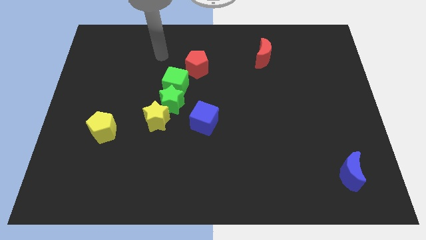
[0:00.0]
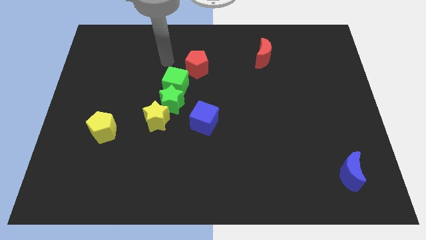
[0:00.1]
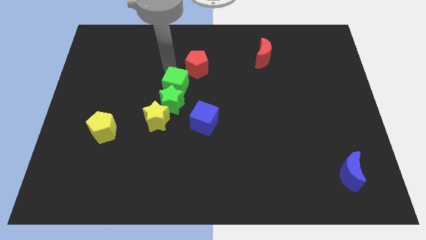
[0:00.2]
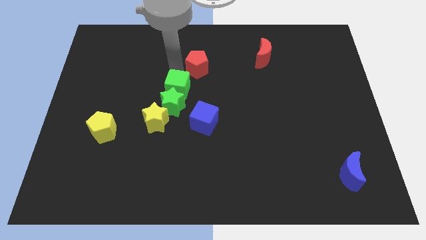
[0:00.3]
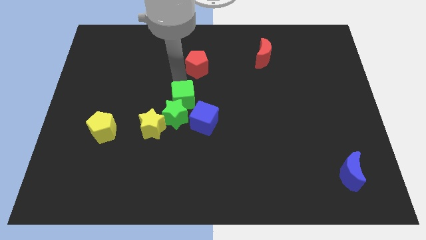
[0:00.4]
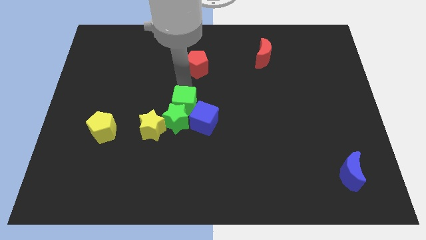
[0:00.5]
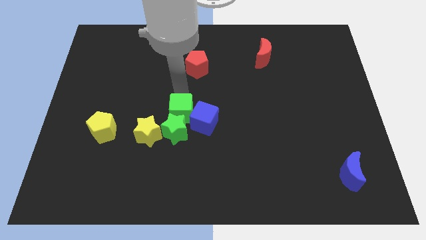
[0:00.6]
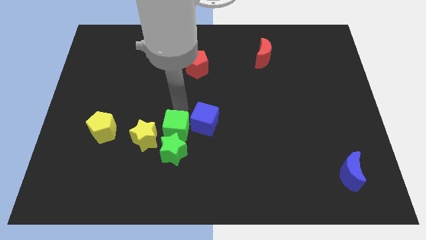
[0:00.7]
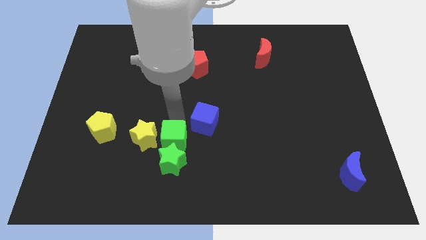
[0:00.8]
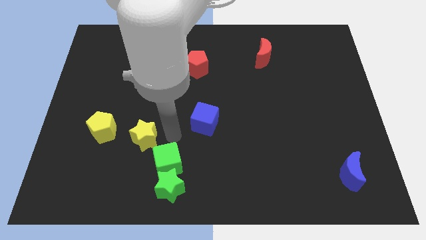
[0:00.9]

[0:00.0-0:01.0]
move the yellow star away from the green star

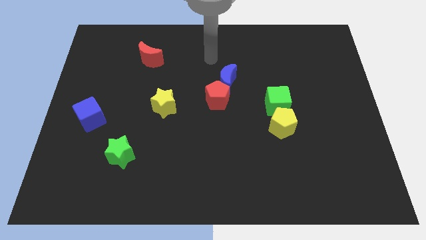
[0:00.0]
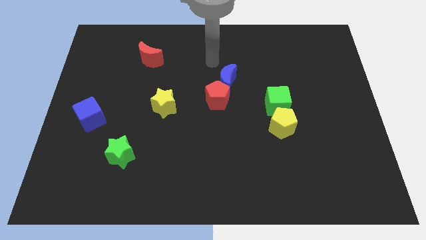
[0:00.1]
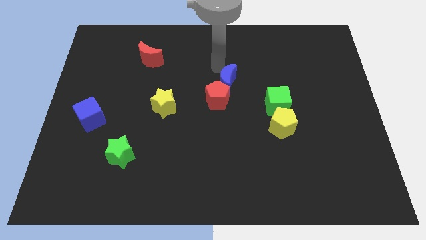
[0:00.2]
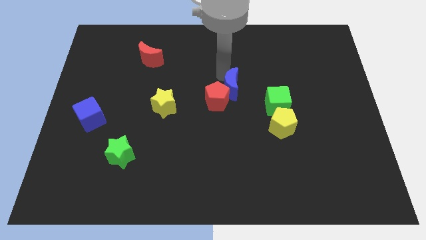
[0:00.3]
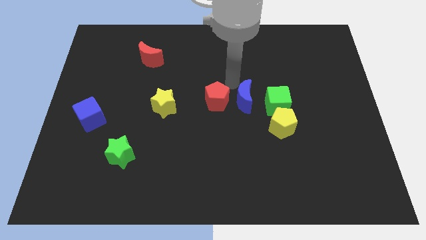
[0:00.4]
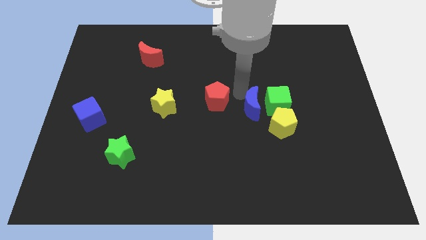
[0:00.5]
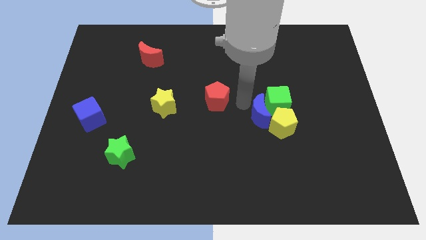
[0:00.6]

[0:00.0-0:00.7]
move the red pentagon away from the blue moon

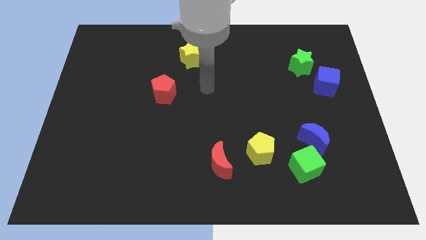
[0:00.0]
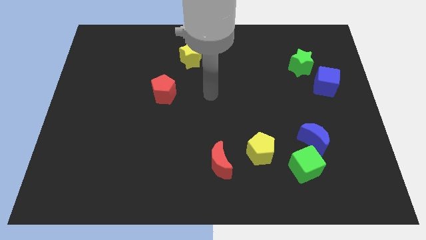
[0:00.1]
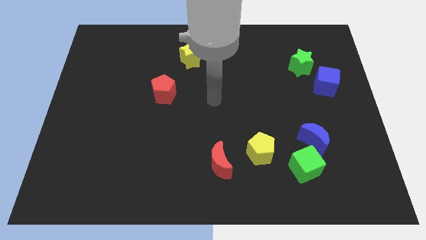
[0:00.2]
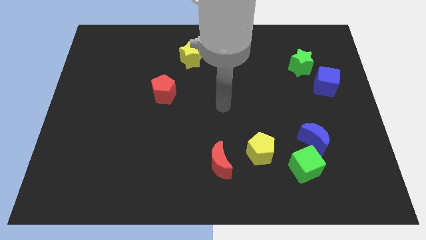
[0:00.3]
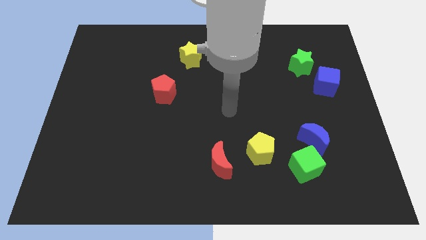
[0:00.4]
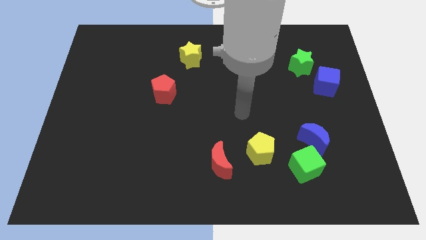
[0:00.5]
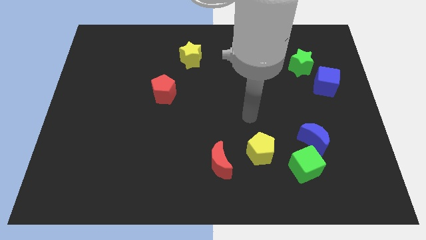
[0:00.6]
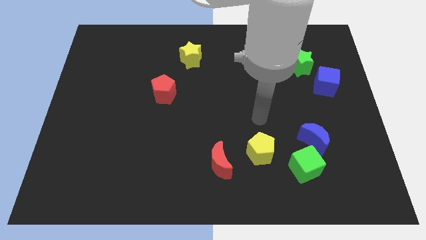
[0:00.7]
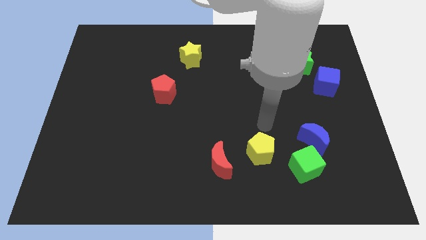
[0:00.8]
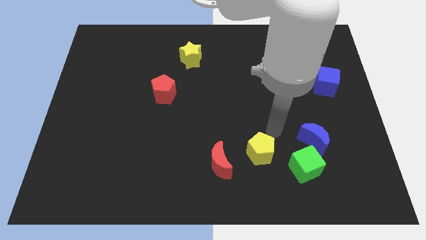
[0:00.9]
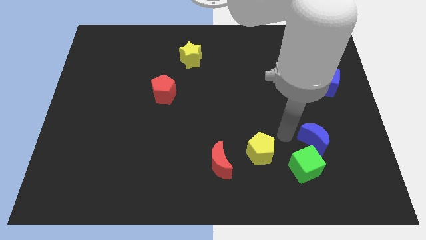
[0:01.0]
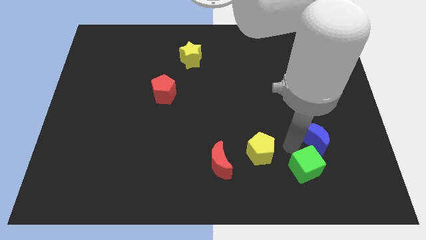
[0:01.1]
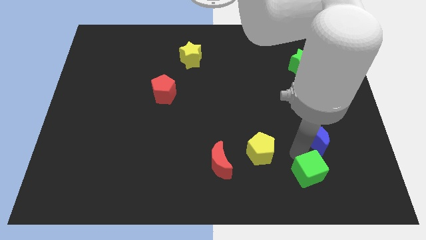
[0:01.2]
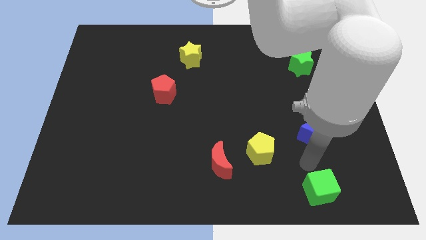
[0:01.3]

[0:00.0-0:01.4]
separate the blue moon from the green cube

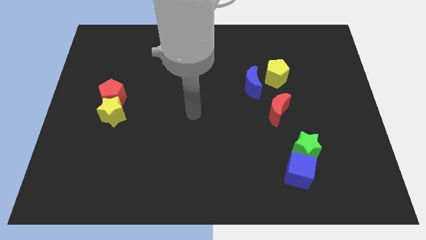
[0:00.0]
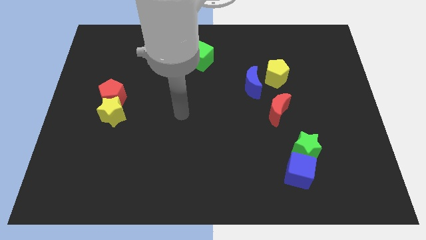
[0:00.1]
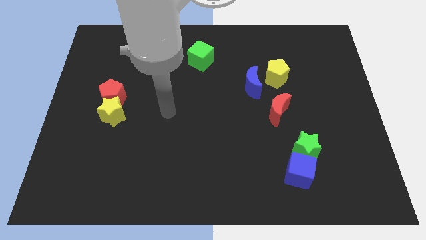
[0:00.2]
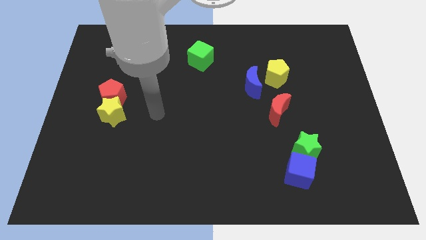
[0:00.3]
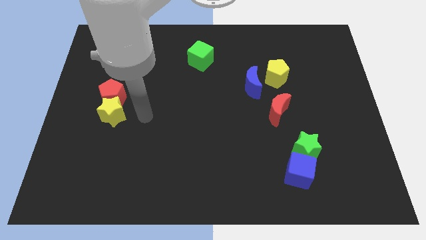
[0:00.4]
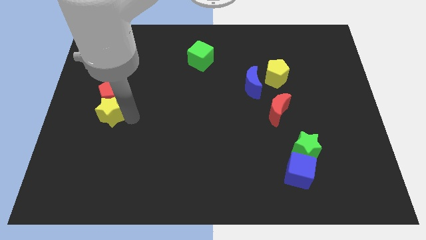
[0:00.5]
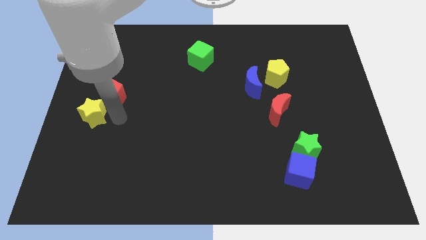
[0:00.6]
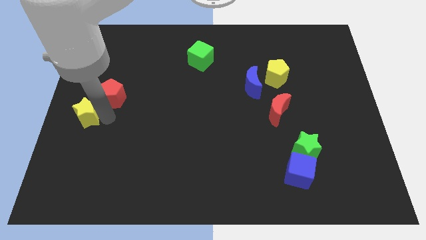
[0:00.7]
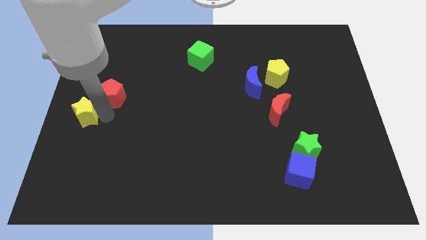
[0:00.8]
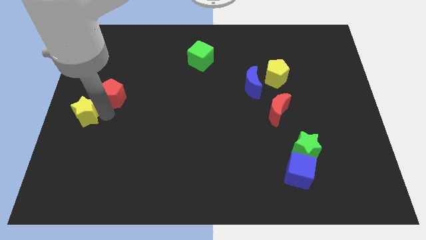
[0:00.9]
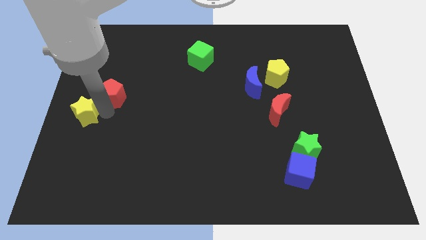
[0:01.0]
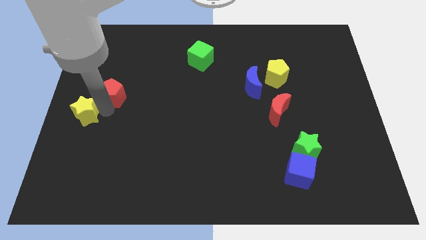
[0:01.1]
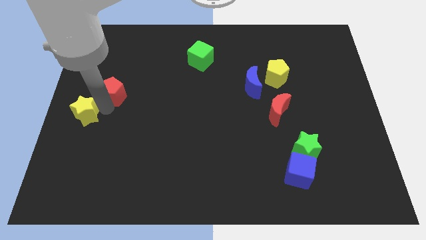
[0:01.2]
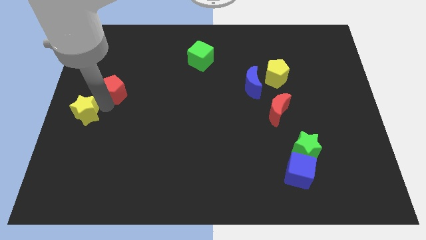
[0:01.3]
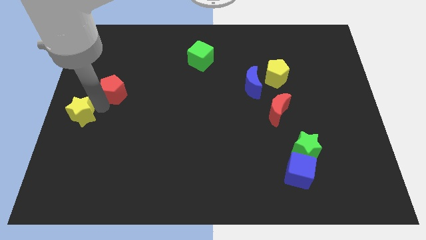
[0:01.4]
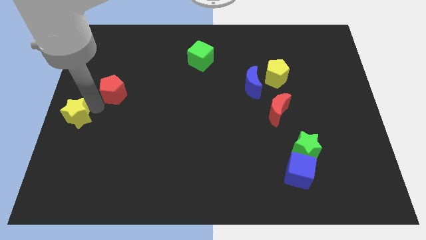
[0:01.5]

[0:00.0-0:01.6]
move the red pentagon away from the yellow star

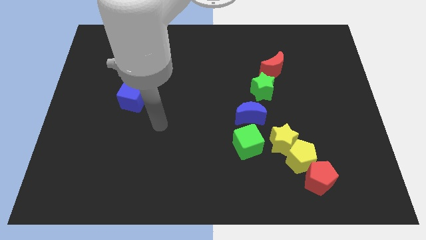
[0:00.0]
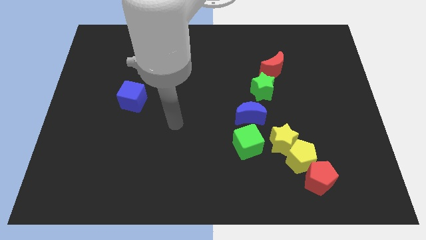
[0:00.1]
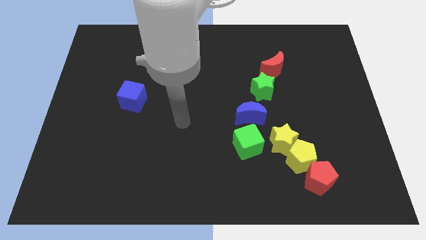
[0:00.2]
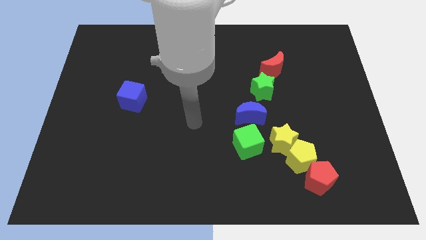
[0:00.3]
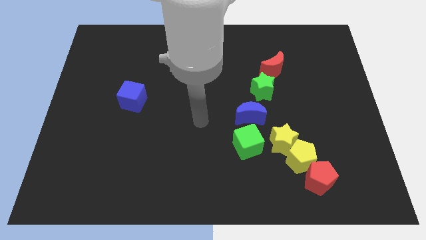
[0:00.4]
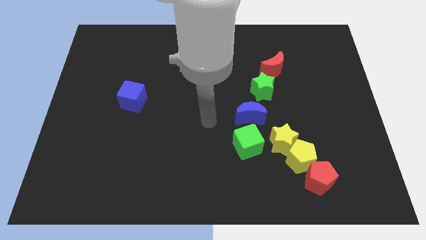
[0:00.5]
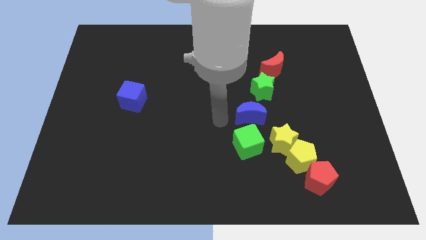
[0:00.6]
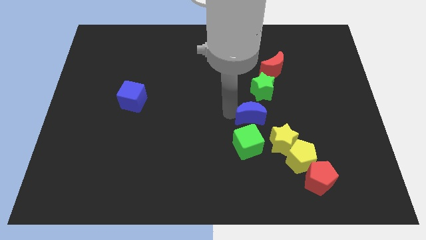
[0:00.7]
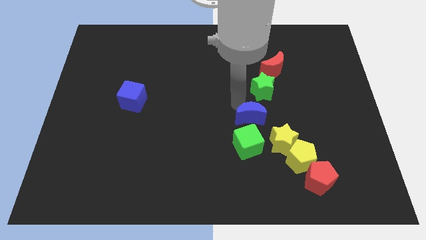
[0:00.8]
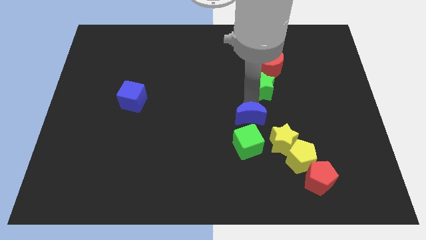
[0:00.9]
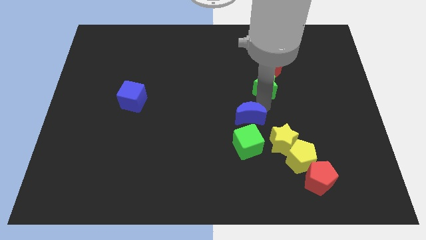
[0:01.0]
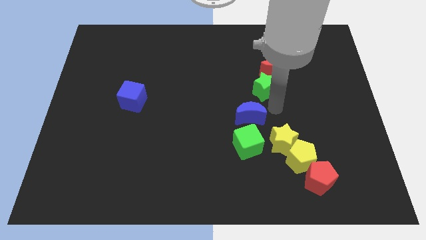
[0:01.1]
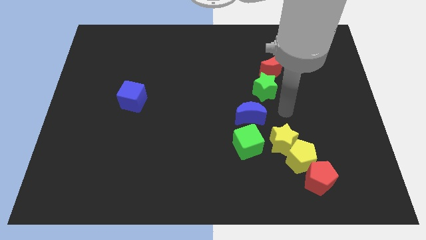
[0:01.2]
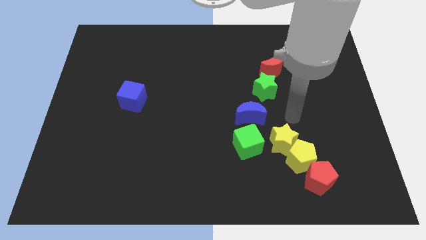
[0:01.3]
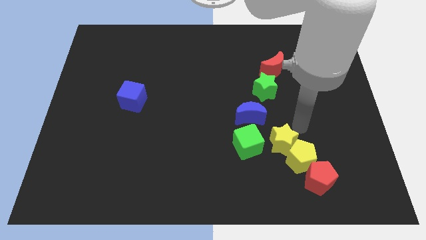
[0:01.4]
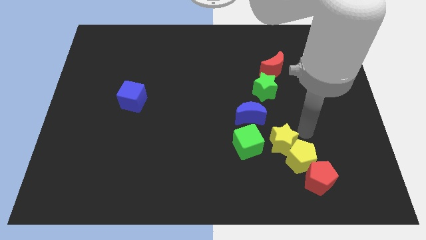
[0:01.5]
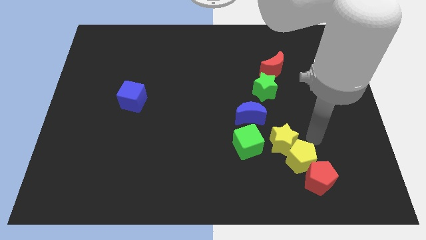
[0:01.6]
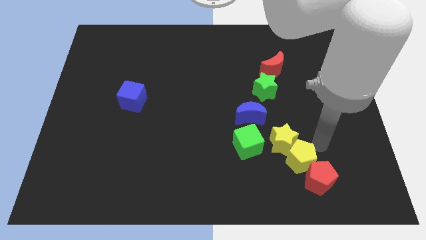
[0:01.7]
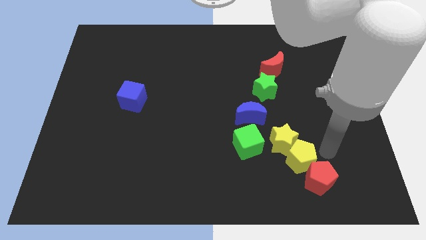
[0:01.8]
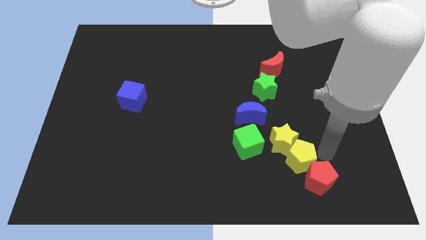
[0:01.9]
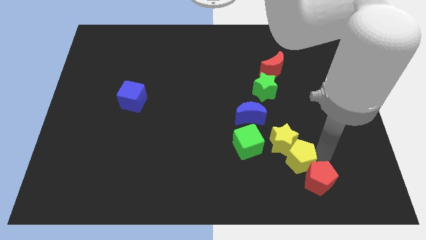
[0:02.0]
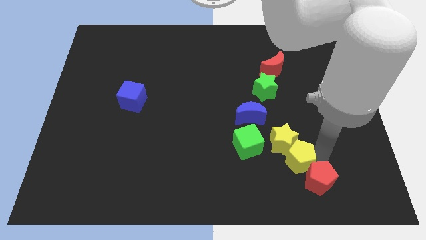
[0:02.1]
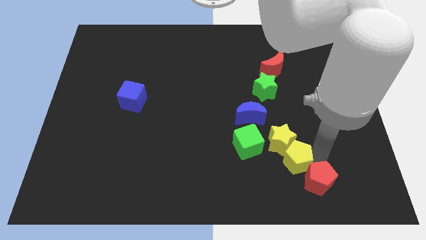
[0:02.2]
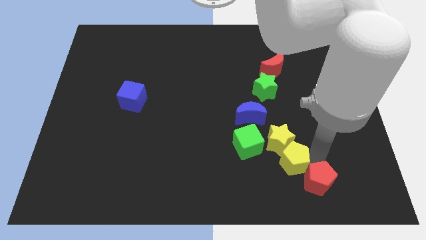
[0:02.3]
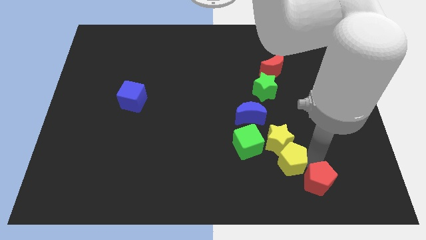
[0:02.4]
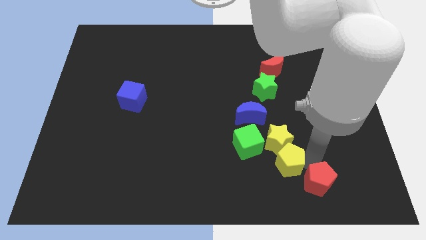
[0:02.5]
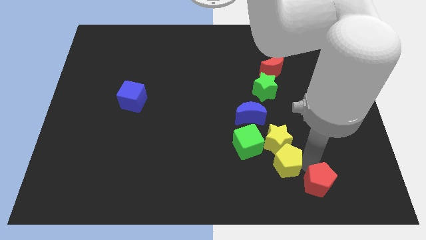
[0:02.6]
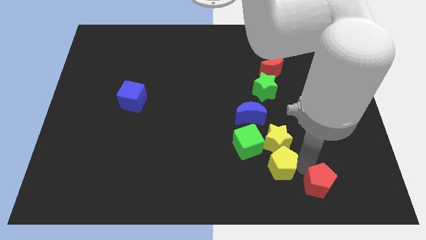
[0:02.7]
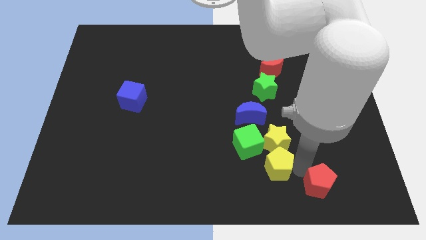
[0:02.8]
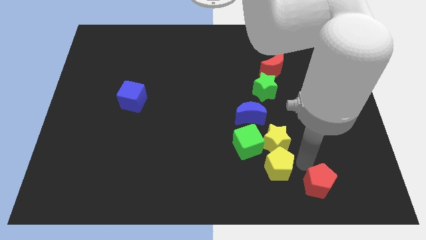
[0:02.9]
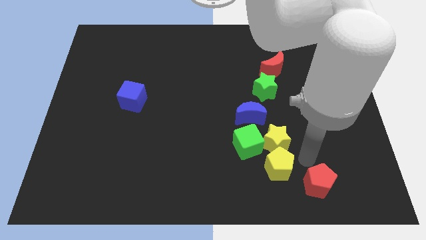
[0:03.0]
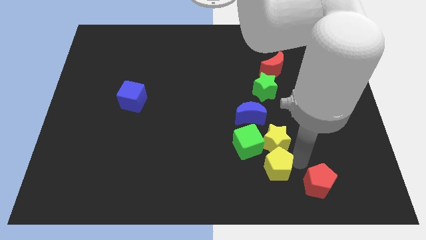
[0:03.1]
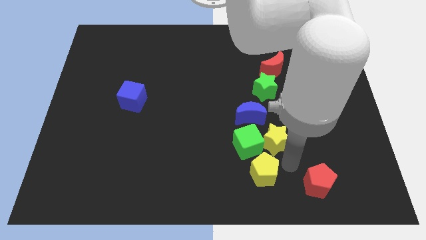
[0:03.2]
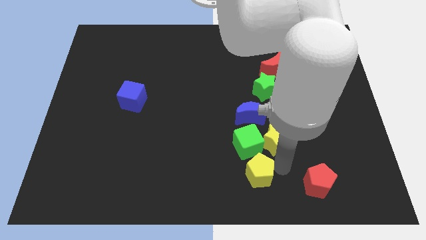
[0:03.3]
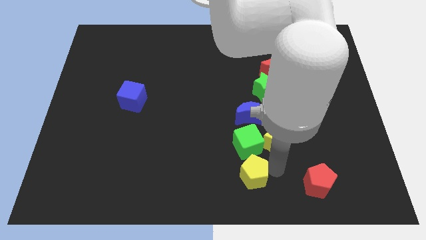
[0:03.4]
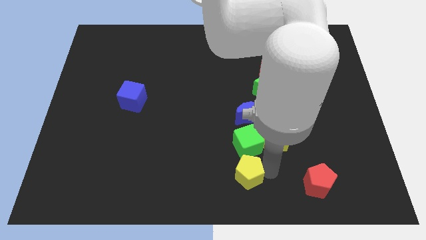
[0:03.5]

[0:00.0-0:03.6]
pull the yellow pentagon apart from the yellow star and red pentagon

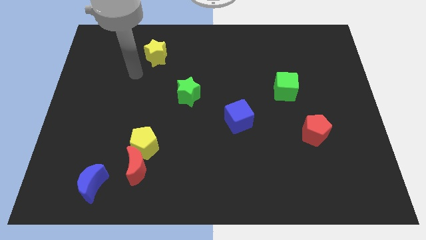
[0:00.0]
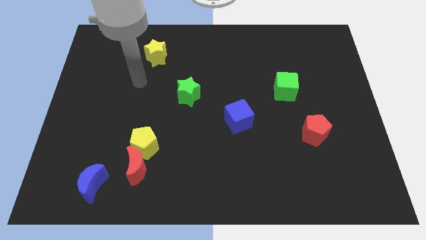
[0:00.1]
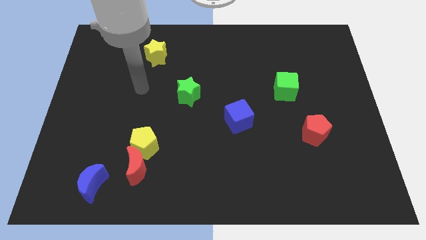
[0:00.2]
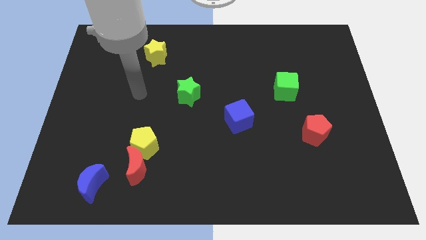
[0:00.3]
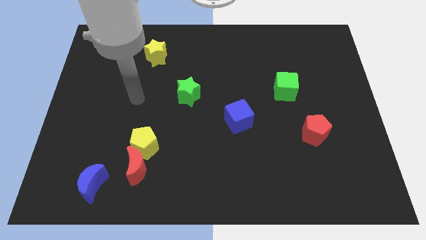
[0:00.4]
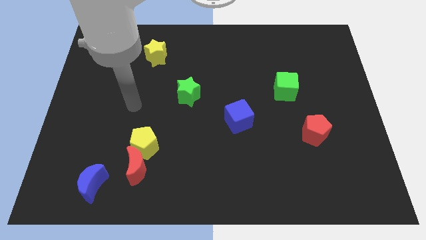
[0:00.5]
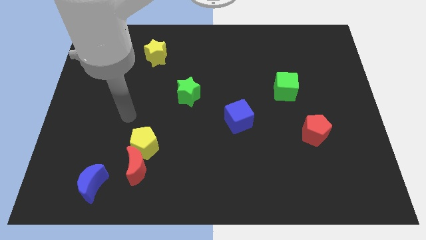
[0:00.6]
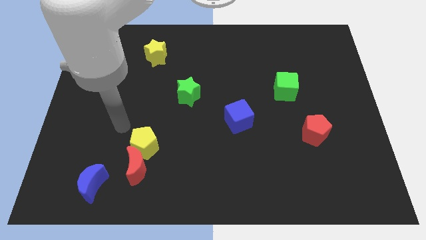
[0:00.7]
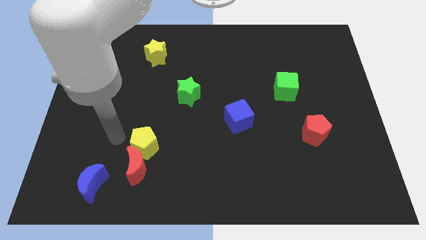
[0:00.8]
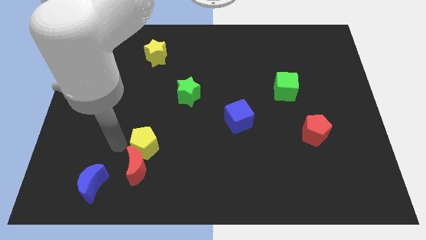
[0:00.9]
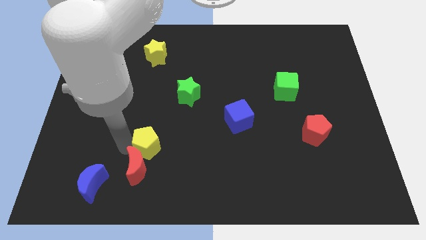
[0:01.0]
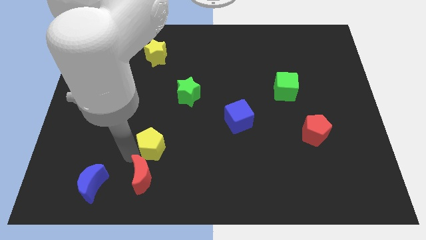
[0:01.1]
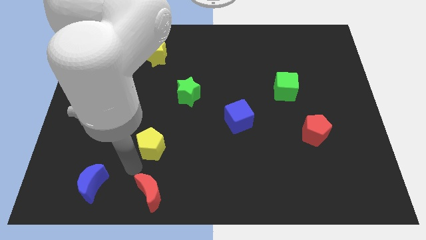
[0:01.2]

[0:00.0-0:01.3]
separate the yellow pentagon from the red moon
